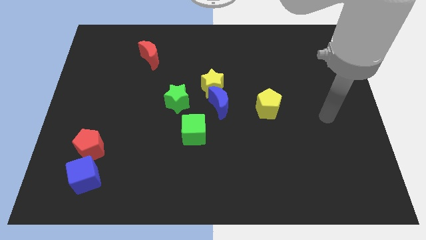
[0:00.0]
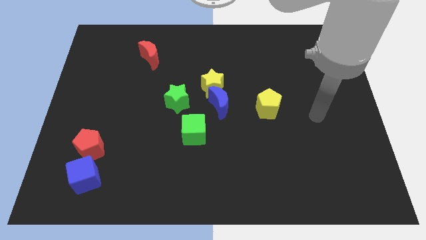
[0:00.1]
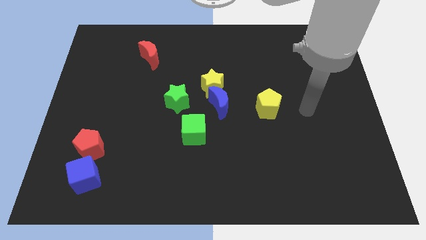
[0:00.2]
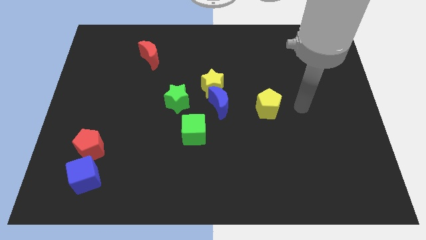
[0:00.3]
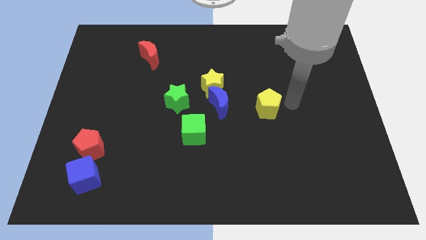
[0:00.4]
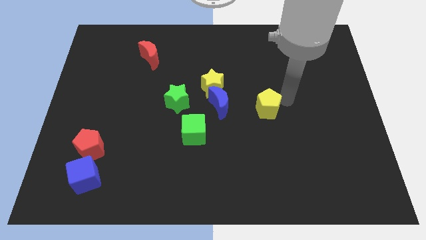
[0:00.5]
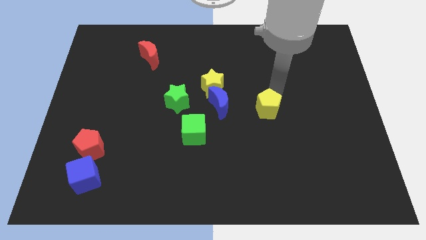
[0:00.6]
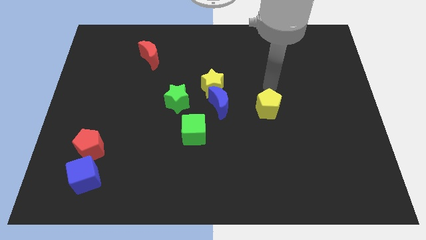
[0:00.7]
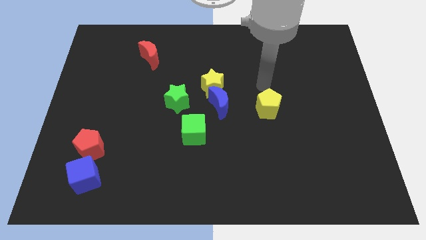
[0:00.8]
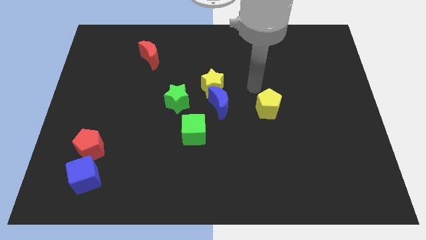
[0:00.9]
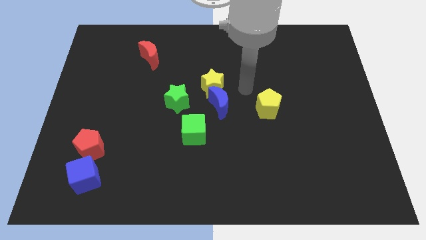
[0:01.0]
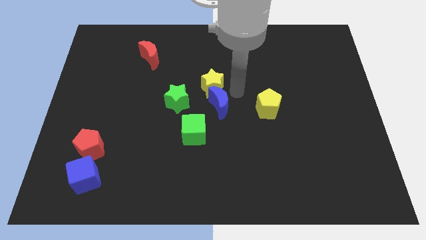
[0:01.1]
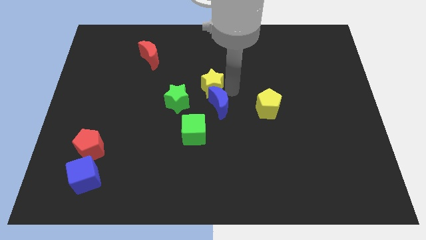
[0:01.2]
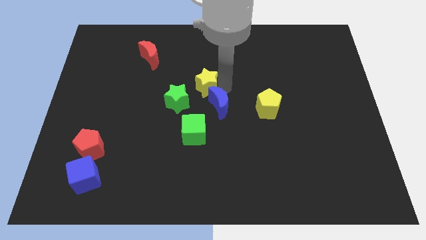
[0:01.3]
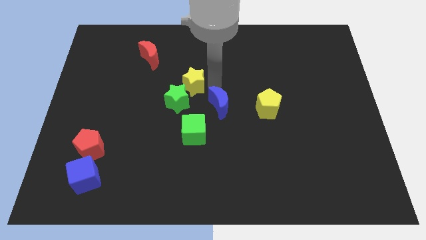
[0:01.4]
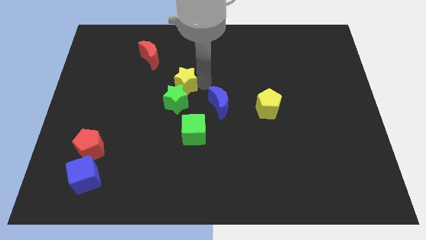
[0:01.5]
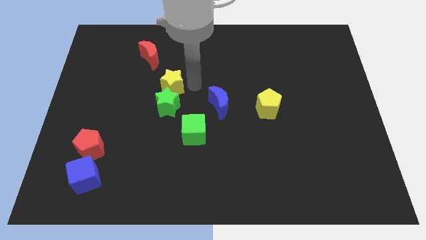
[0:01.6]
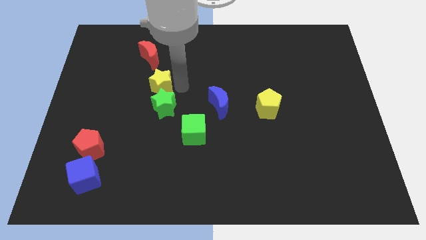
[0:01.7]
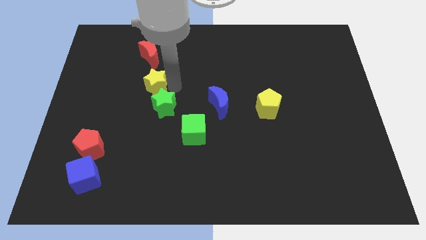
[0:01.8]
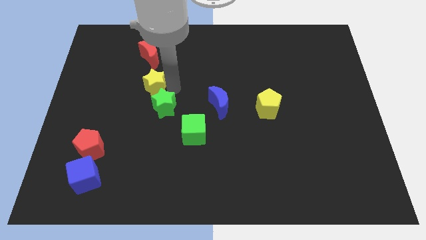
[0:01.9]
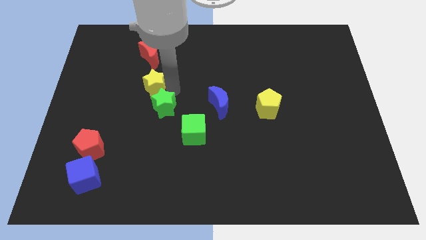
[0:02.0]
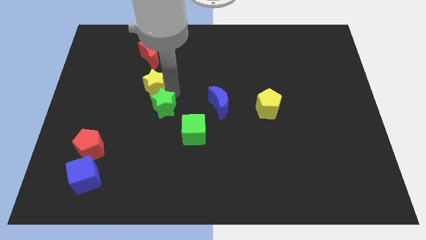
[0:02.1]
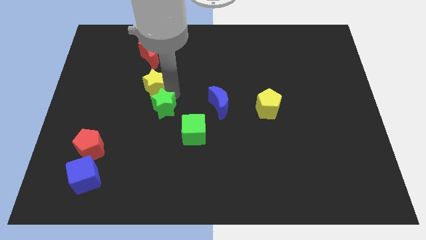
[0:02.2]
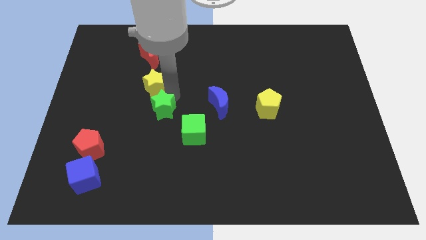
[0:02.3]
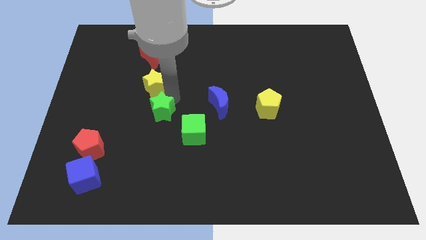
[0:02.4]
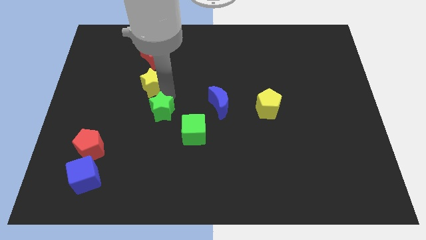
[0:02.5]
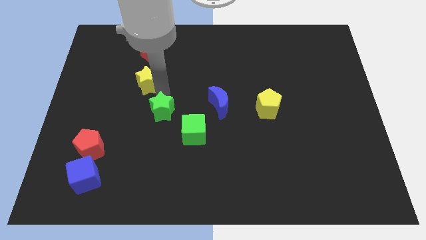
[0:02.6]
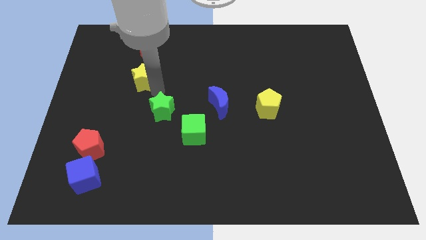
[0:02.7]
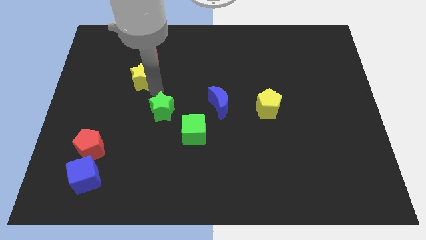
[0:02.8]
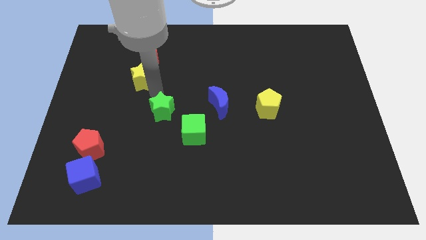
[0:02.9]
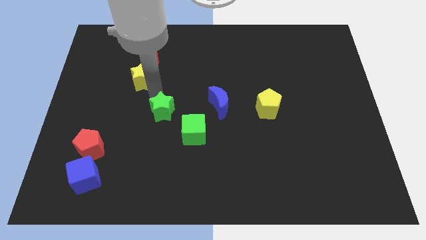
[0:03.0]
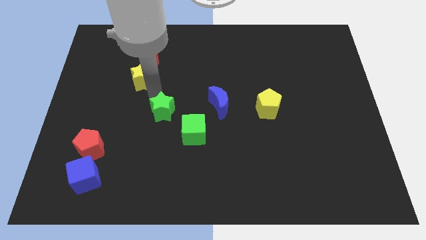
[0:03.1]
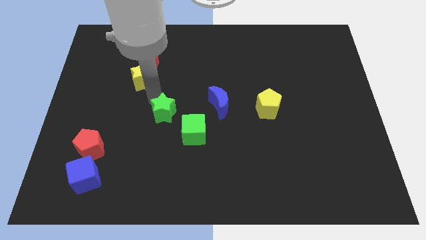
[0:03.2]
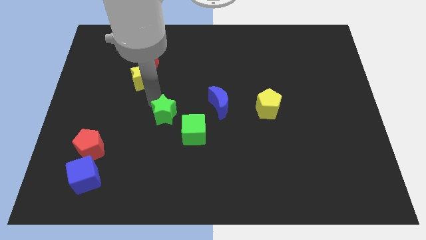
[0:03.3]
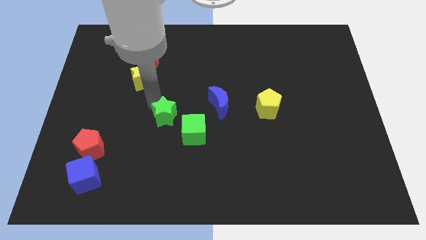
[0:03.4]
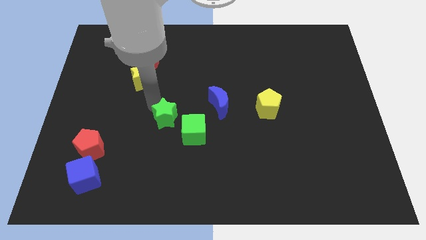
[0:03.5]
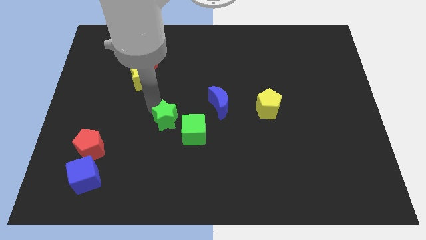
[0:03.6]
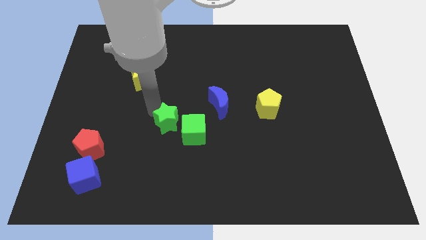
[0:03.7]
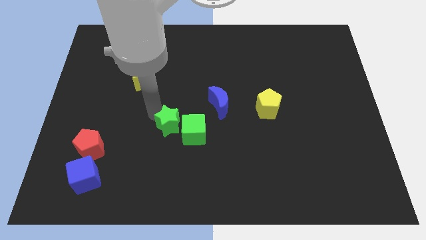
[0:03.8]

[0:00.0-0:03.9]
slide the green star slightly down

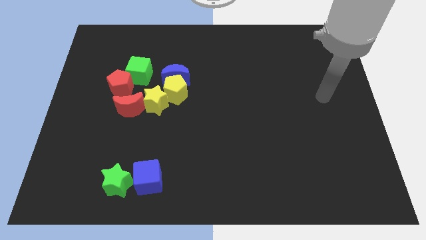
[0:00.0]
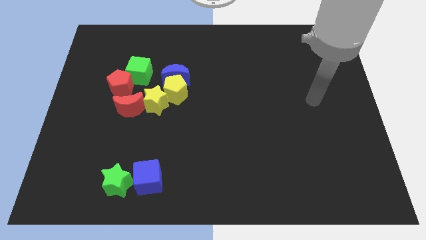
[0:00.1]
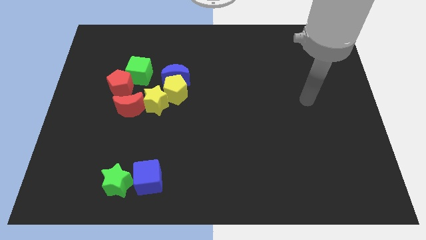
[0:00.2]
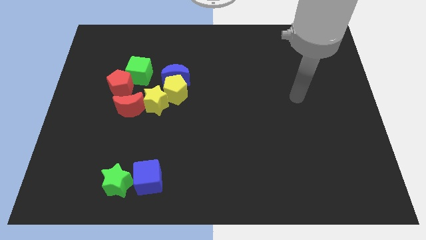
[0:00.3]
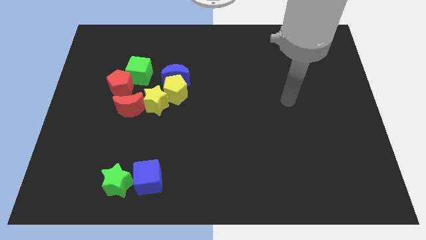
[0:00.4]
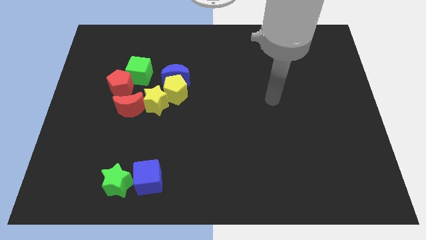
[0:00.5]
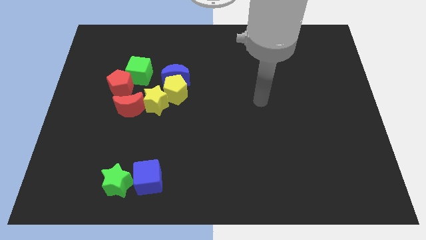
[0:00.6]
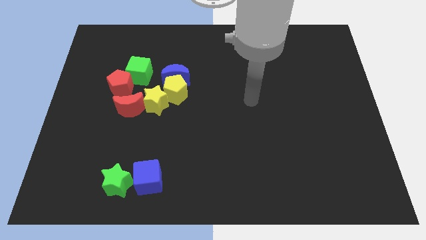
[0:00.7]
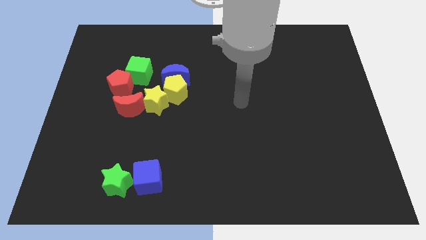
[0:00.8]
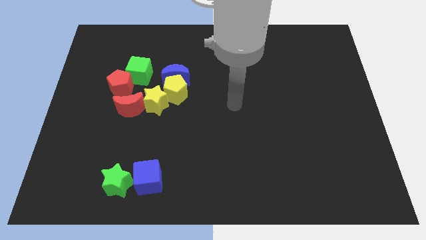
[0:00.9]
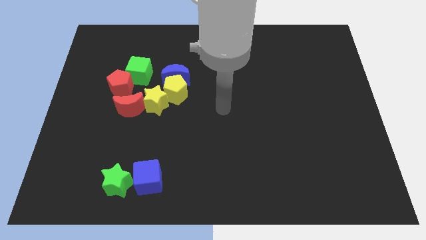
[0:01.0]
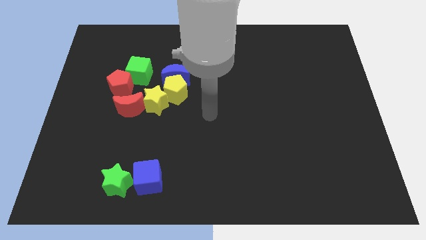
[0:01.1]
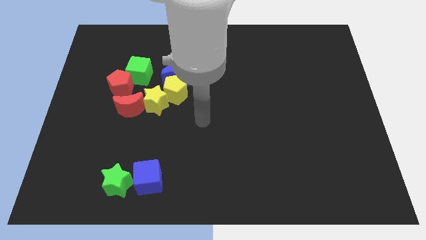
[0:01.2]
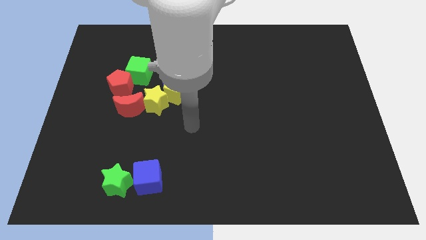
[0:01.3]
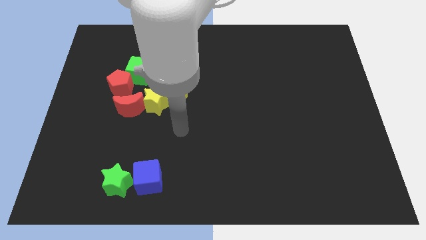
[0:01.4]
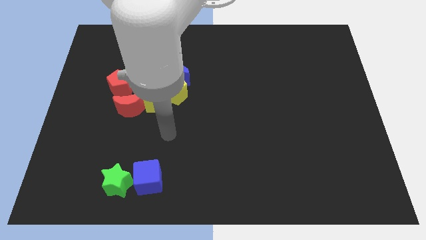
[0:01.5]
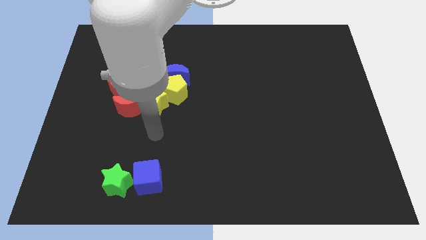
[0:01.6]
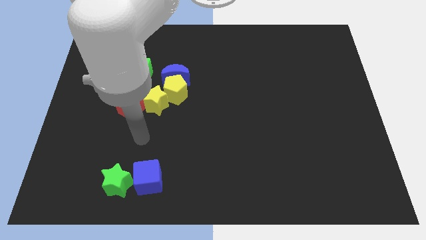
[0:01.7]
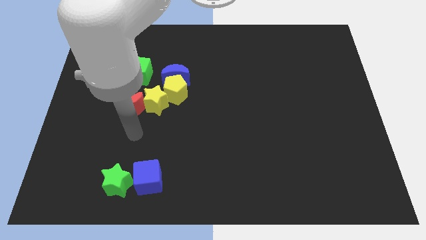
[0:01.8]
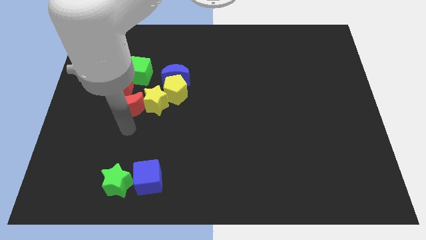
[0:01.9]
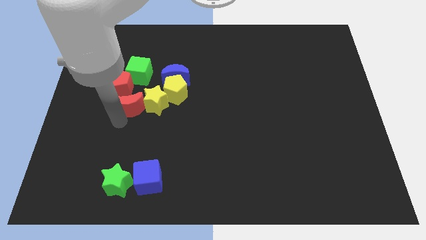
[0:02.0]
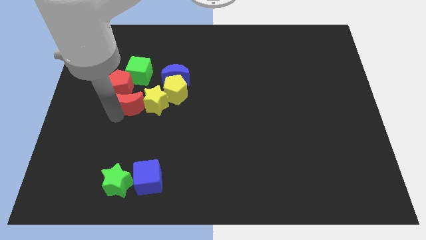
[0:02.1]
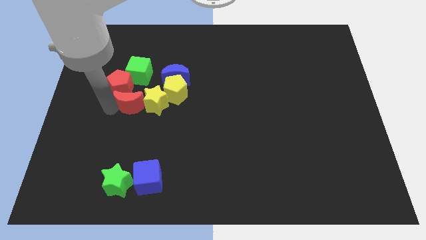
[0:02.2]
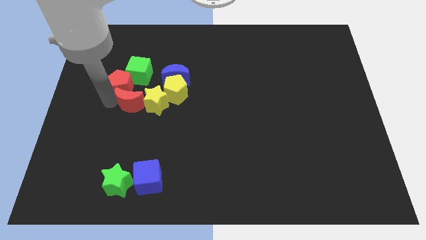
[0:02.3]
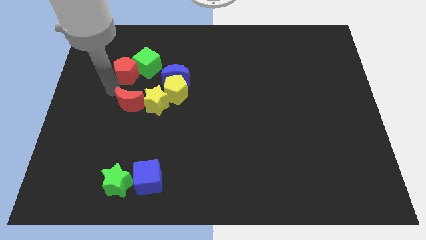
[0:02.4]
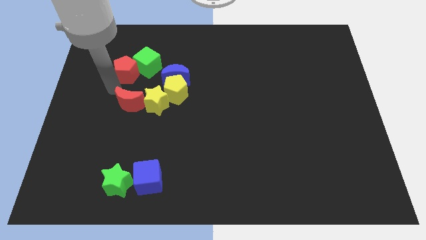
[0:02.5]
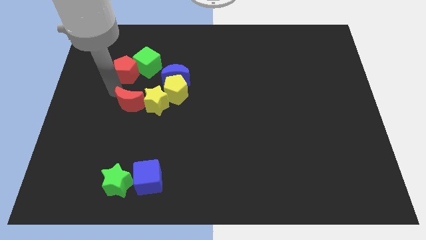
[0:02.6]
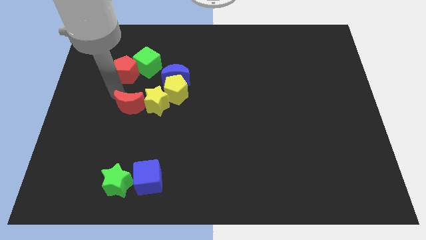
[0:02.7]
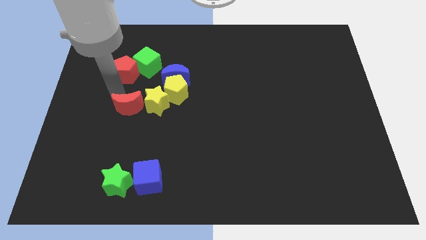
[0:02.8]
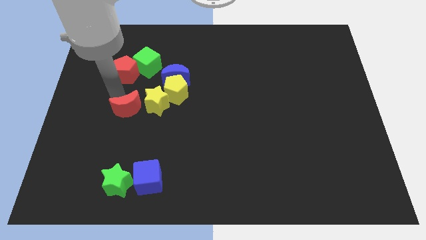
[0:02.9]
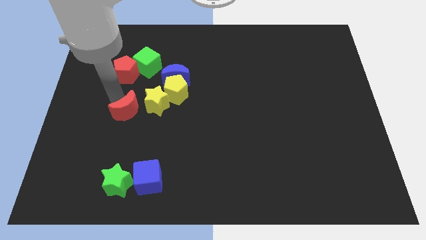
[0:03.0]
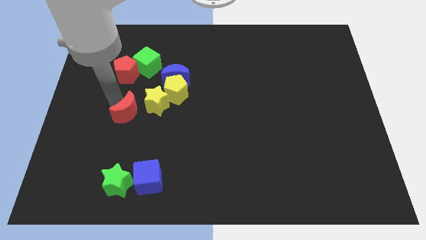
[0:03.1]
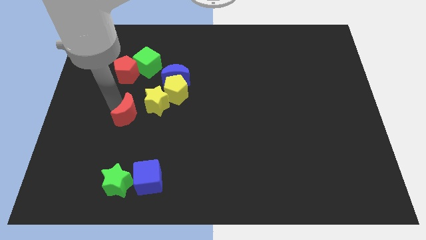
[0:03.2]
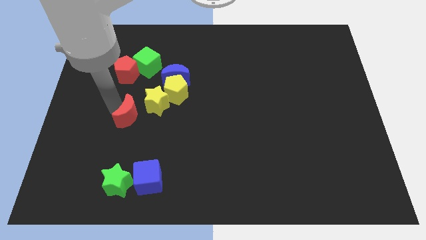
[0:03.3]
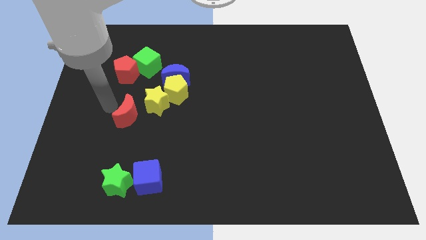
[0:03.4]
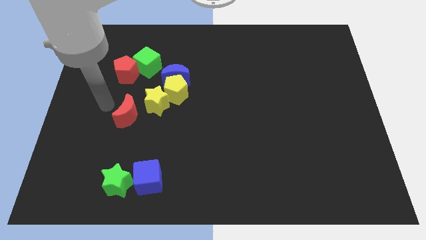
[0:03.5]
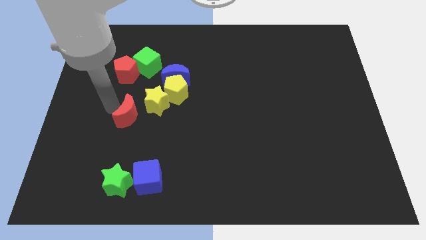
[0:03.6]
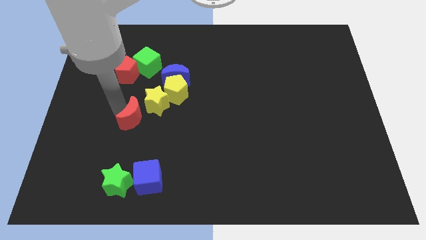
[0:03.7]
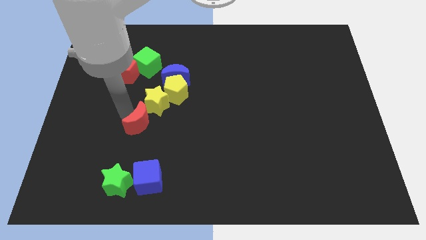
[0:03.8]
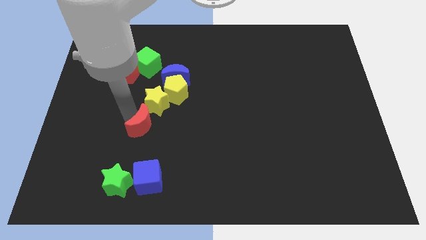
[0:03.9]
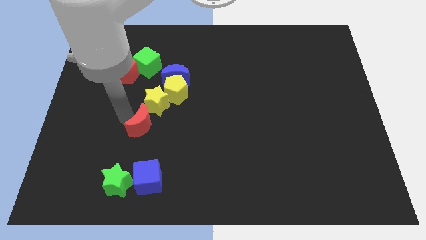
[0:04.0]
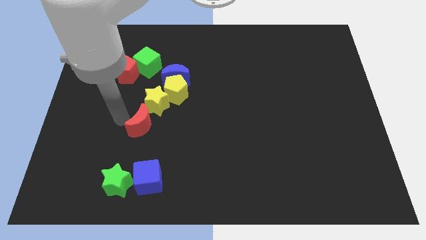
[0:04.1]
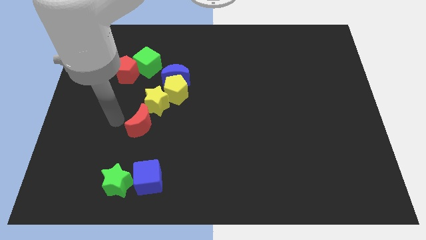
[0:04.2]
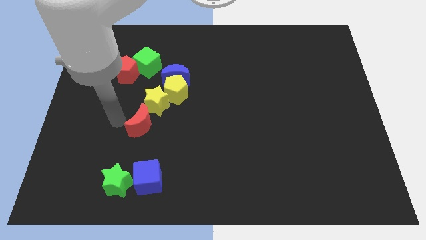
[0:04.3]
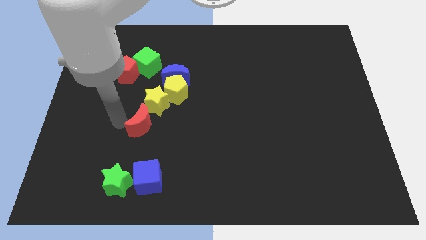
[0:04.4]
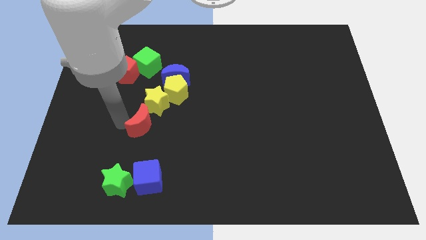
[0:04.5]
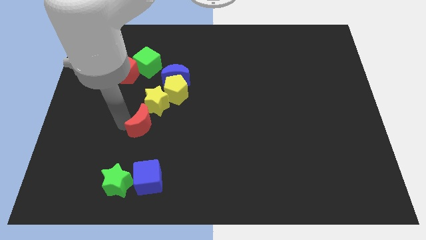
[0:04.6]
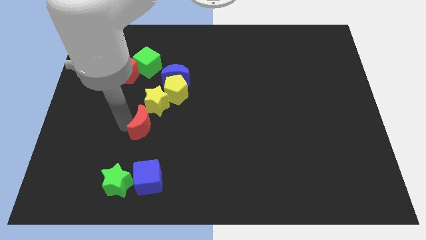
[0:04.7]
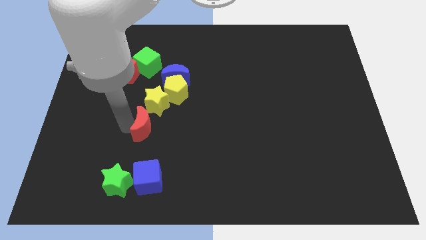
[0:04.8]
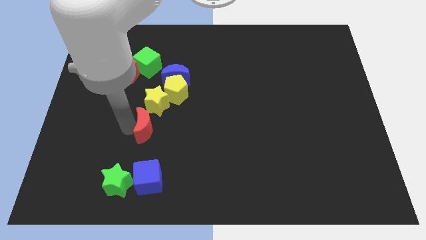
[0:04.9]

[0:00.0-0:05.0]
slightly move the red moon down and right diagonally
